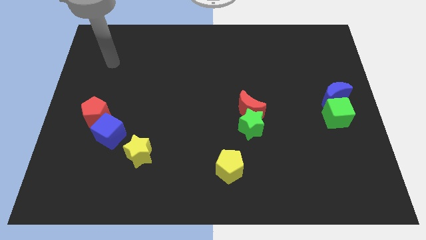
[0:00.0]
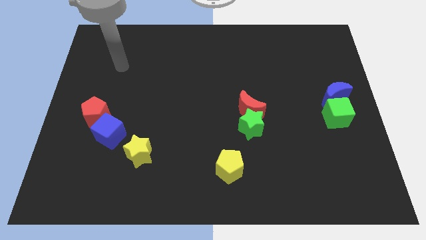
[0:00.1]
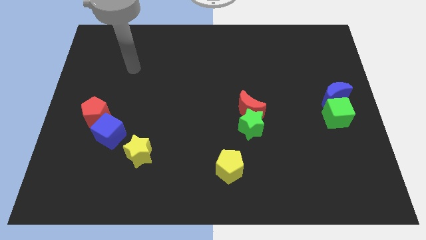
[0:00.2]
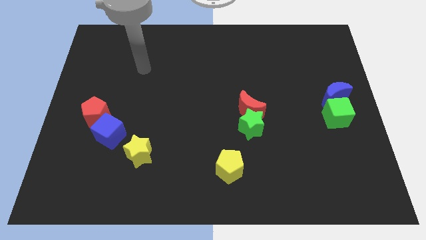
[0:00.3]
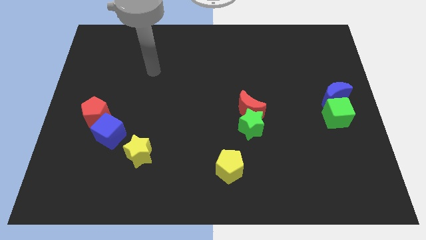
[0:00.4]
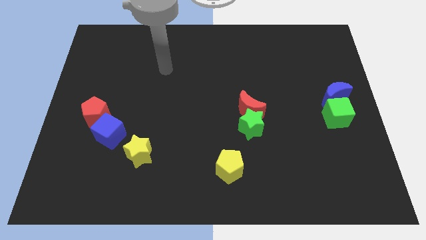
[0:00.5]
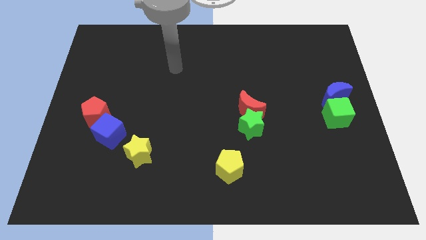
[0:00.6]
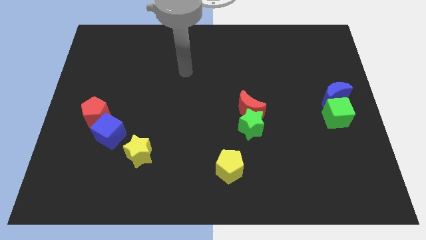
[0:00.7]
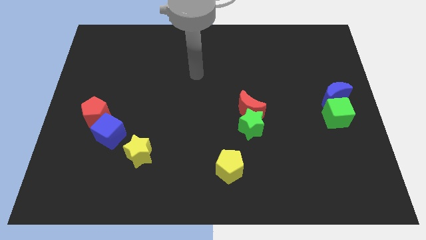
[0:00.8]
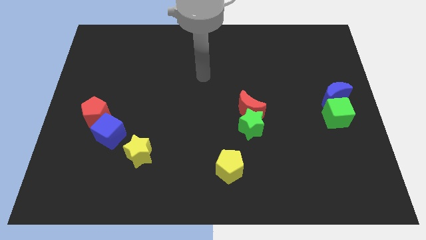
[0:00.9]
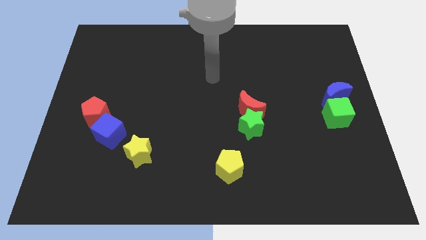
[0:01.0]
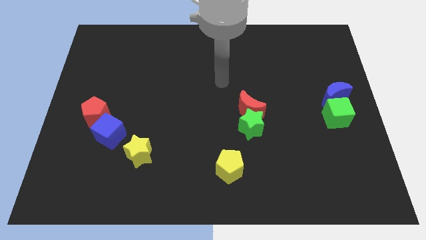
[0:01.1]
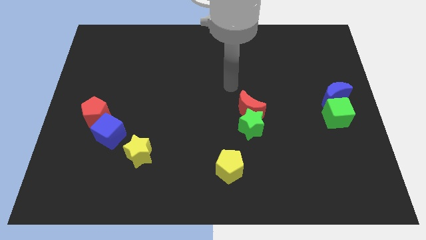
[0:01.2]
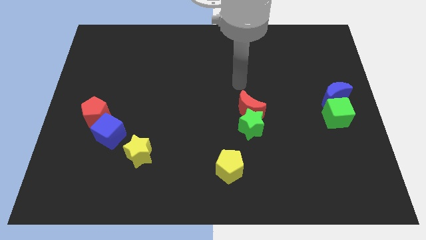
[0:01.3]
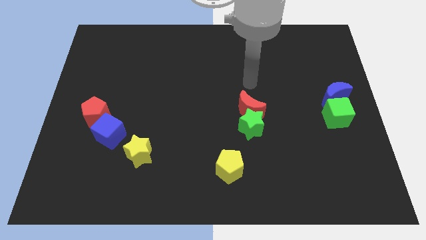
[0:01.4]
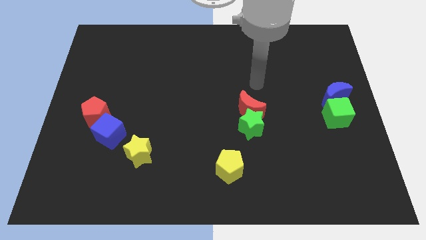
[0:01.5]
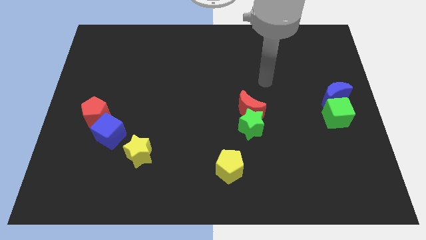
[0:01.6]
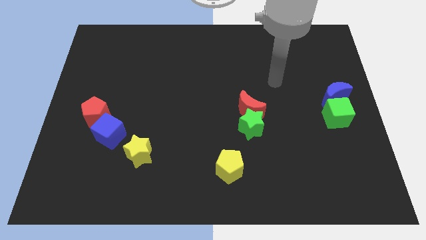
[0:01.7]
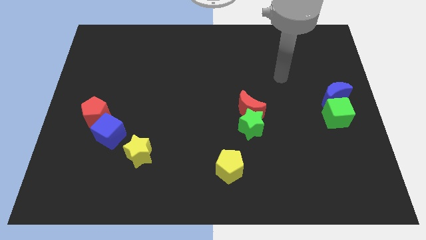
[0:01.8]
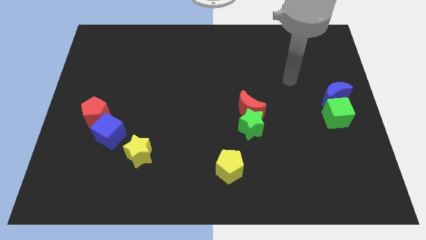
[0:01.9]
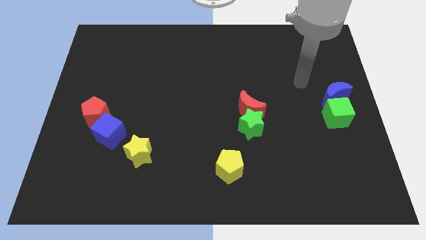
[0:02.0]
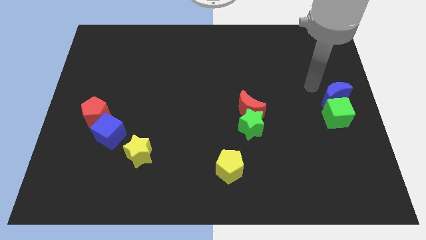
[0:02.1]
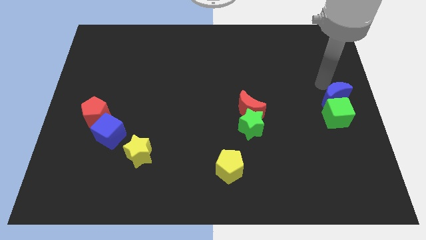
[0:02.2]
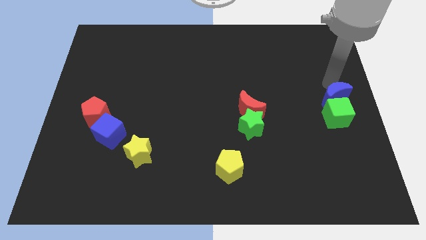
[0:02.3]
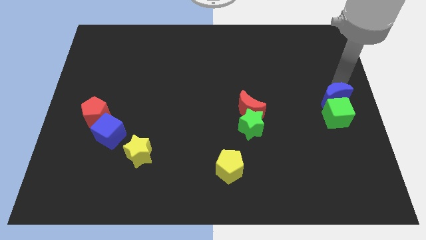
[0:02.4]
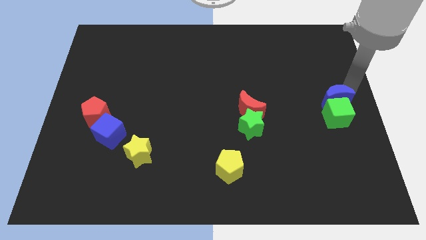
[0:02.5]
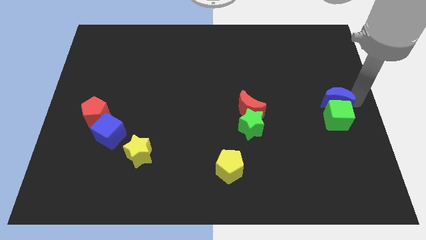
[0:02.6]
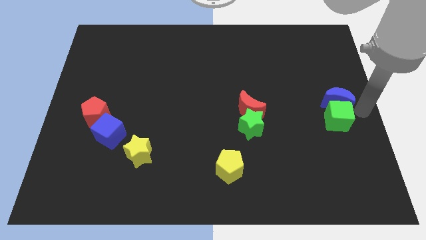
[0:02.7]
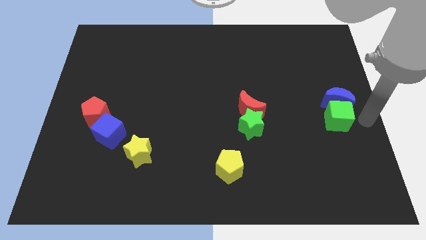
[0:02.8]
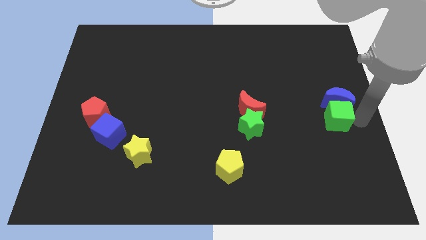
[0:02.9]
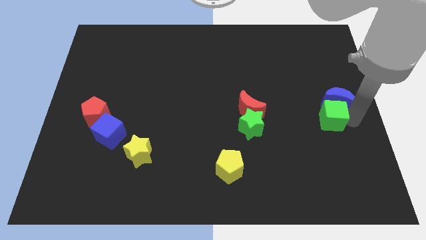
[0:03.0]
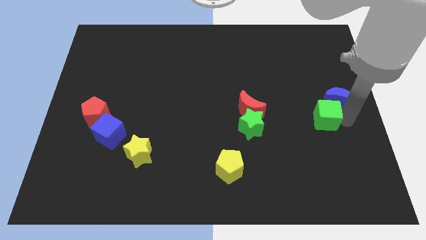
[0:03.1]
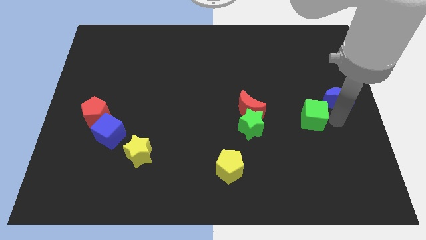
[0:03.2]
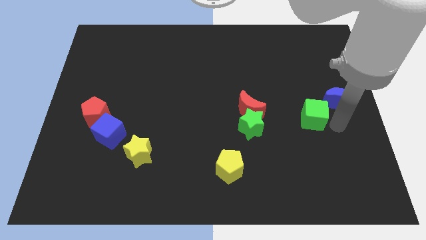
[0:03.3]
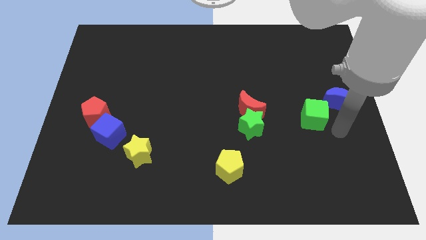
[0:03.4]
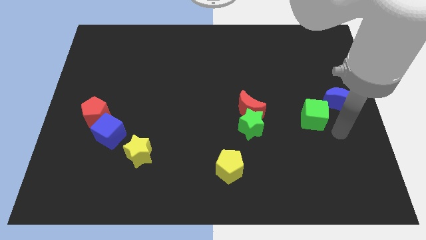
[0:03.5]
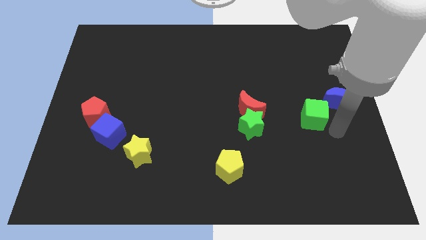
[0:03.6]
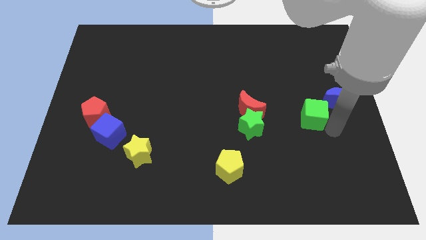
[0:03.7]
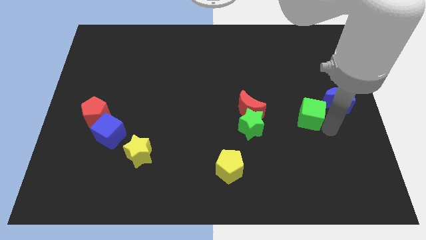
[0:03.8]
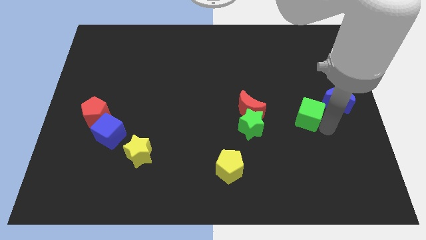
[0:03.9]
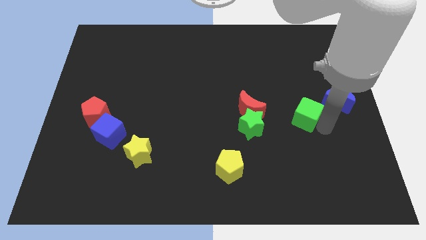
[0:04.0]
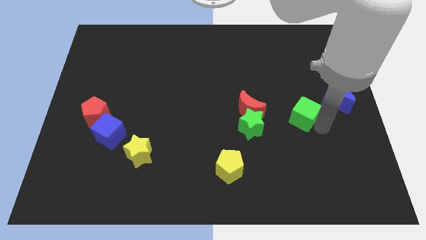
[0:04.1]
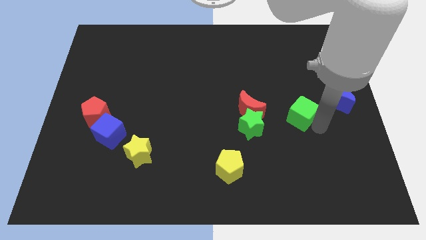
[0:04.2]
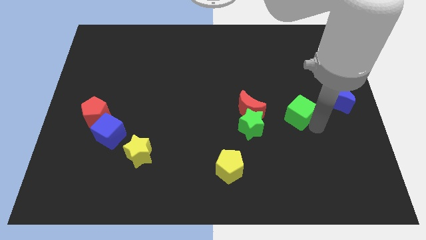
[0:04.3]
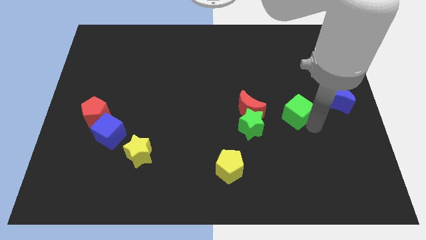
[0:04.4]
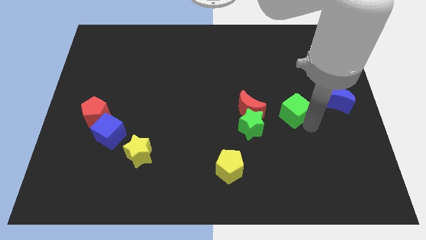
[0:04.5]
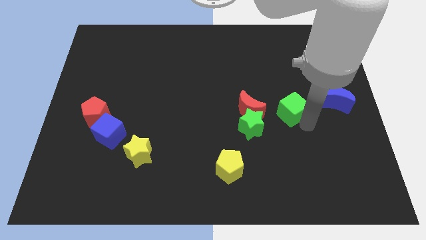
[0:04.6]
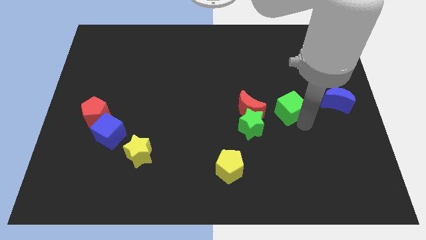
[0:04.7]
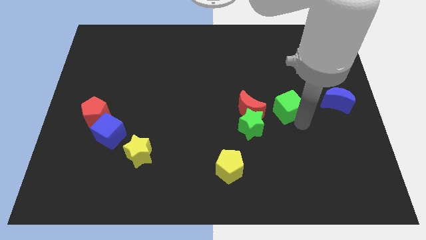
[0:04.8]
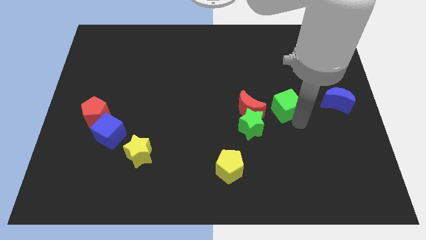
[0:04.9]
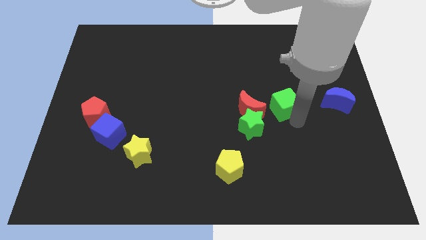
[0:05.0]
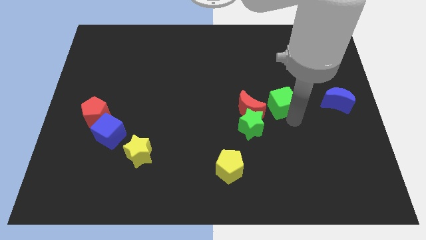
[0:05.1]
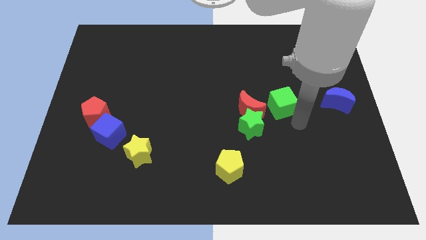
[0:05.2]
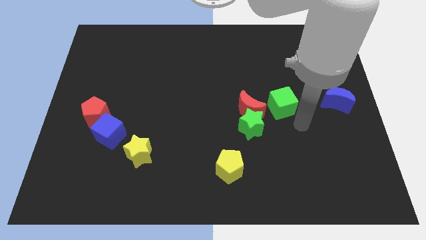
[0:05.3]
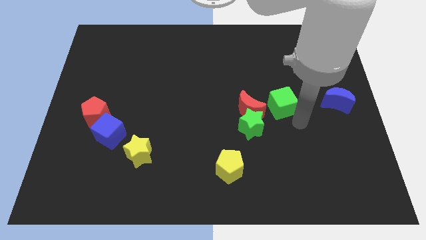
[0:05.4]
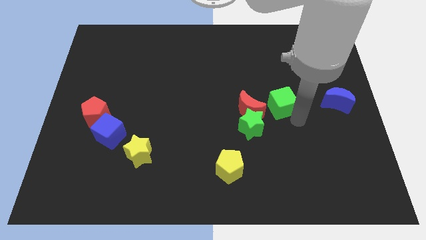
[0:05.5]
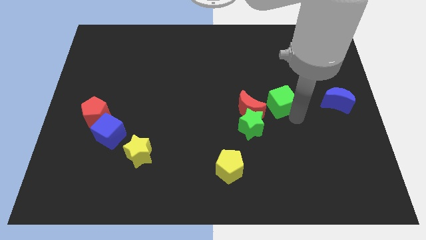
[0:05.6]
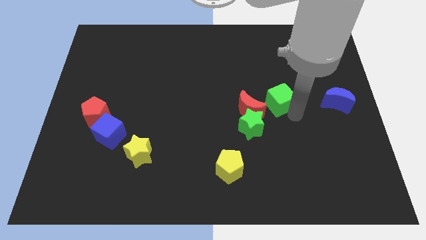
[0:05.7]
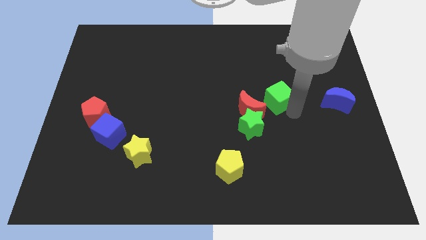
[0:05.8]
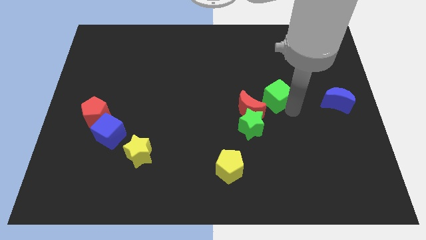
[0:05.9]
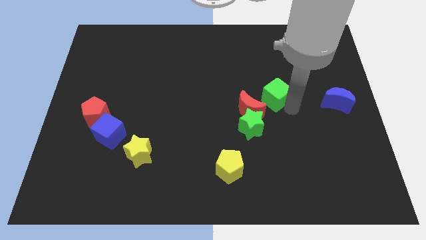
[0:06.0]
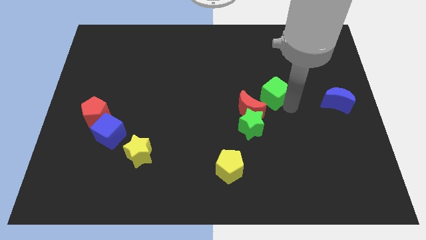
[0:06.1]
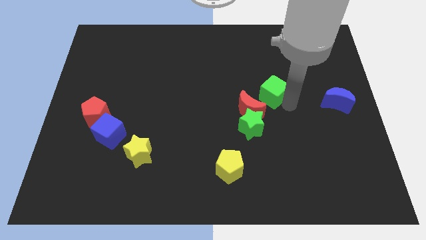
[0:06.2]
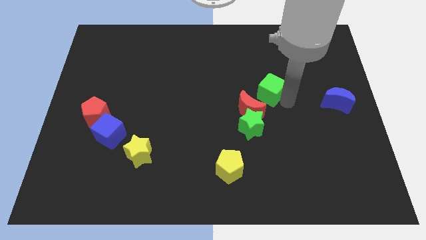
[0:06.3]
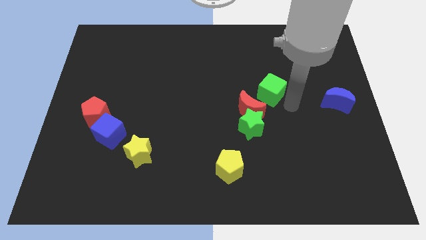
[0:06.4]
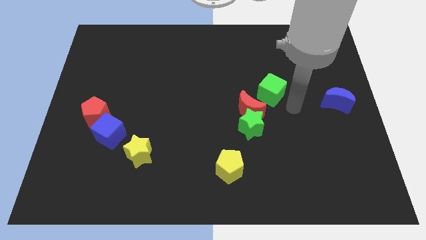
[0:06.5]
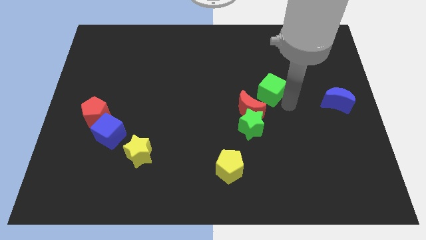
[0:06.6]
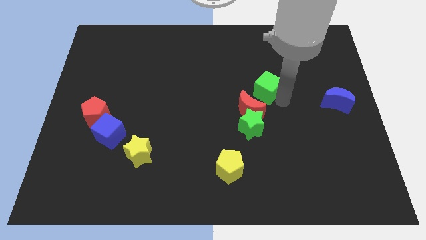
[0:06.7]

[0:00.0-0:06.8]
push the green cube to the top side of the red moon

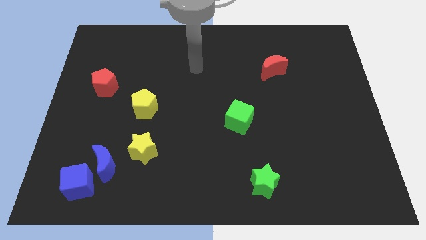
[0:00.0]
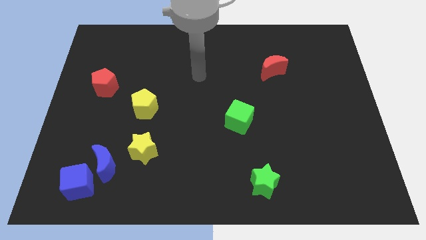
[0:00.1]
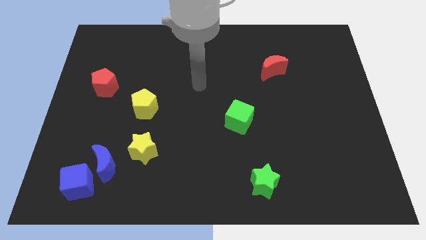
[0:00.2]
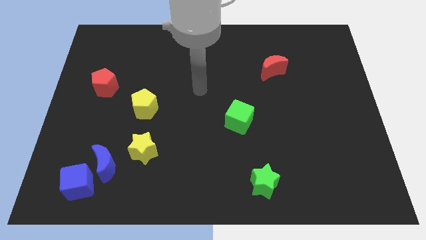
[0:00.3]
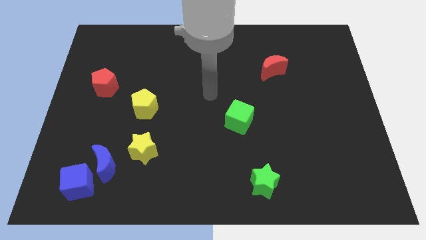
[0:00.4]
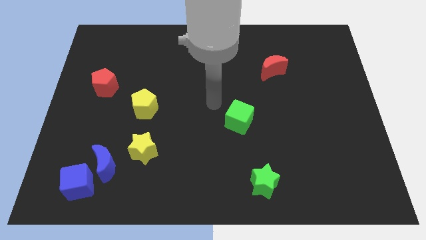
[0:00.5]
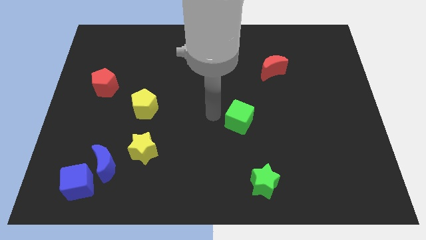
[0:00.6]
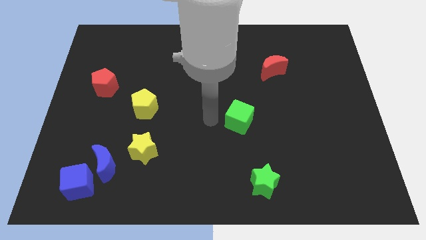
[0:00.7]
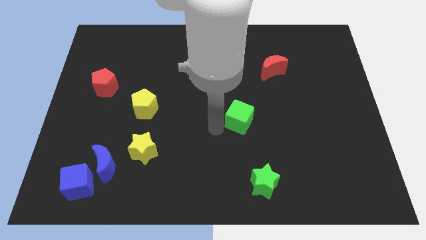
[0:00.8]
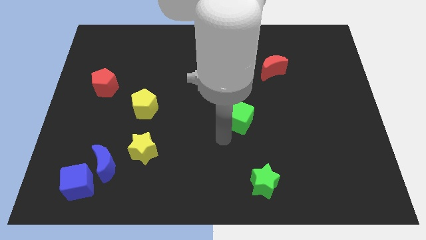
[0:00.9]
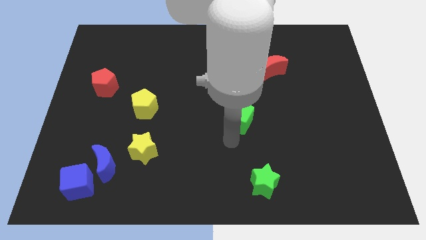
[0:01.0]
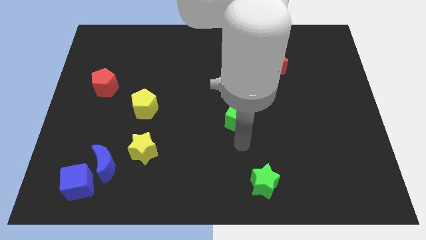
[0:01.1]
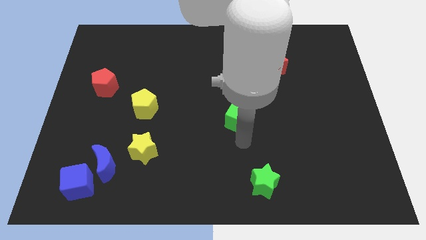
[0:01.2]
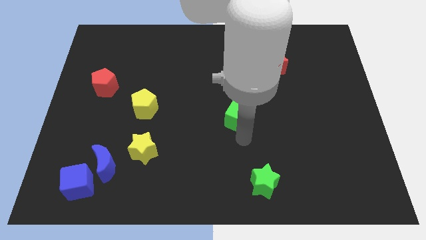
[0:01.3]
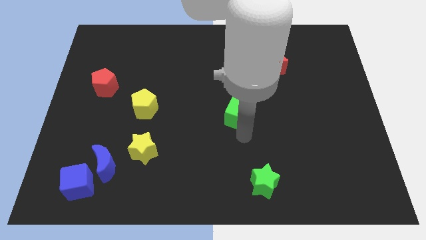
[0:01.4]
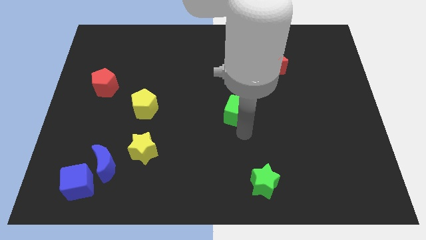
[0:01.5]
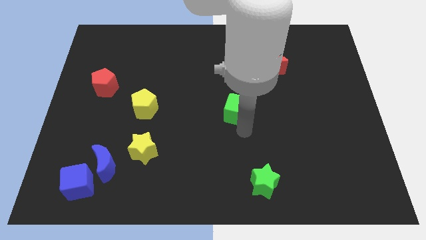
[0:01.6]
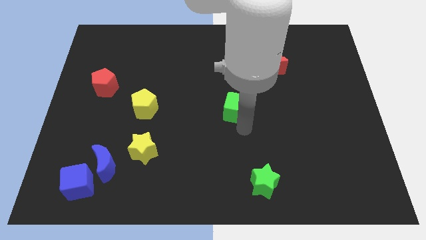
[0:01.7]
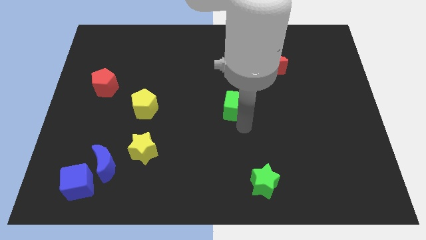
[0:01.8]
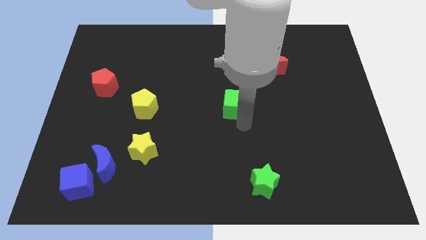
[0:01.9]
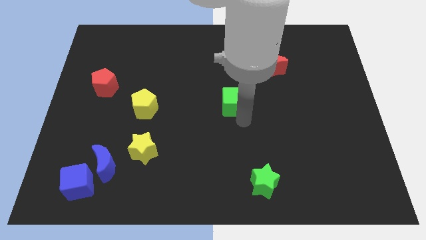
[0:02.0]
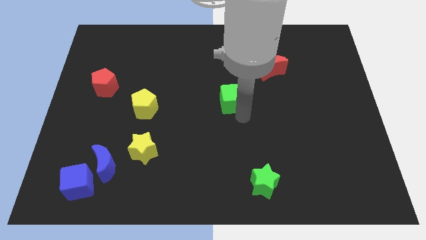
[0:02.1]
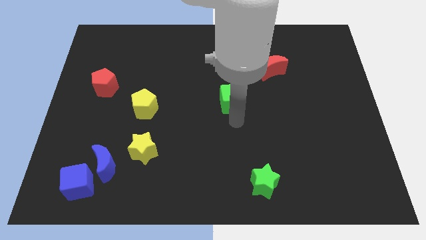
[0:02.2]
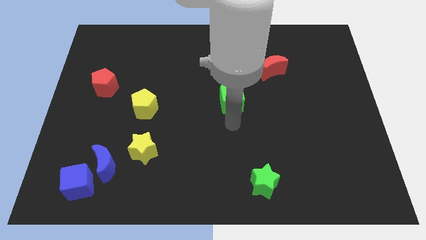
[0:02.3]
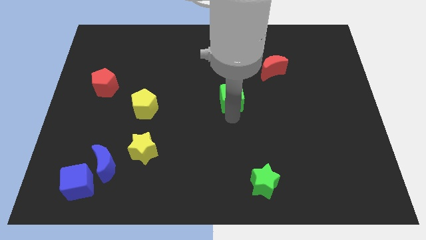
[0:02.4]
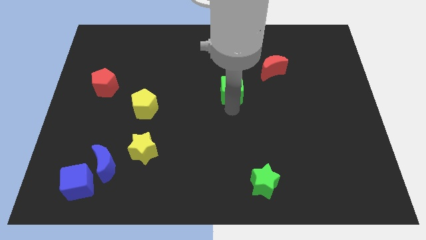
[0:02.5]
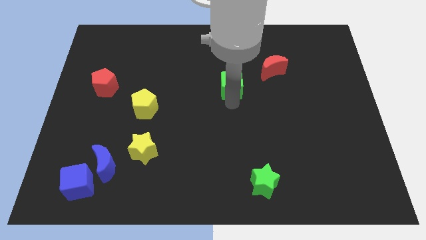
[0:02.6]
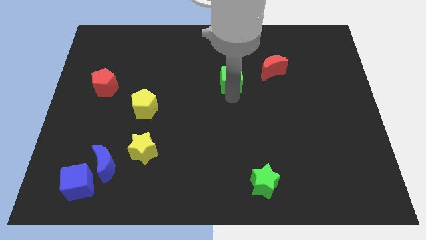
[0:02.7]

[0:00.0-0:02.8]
move the green cube to the left of the red moon
